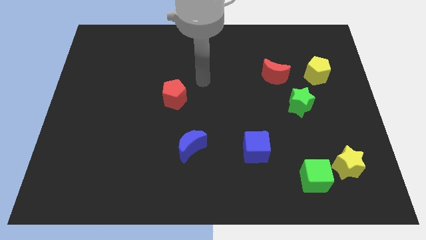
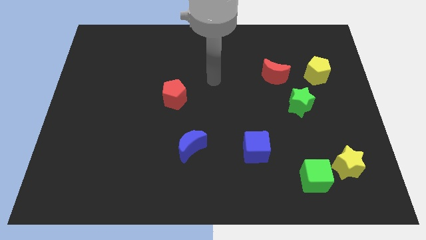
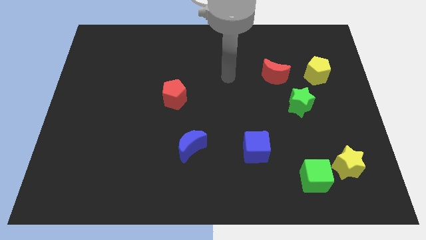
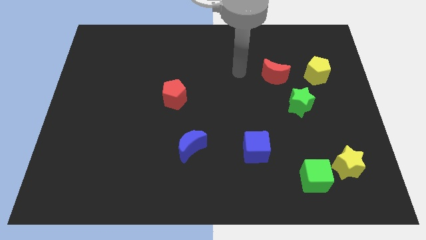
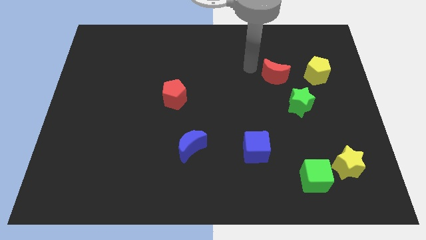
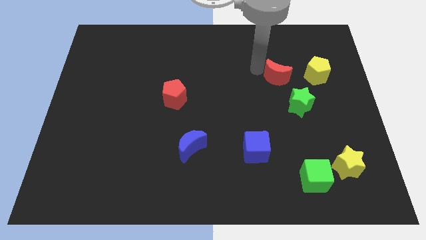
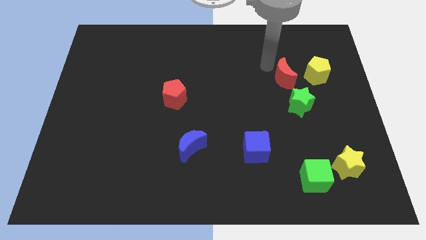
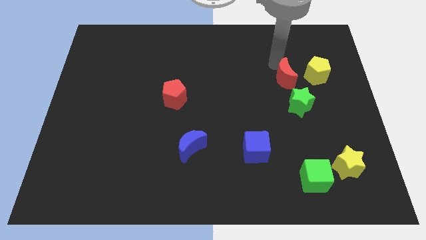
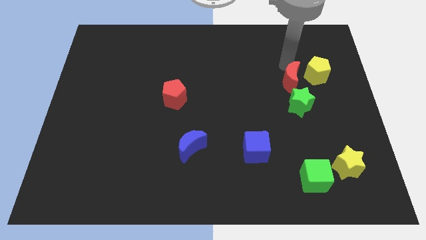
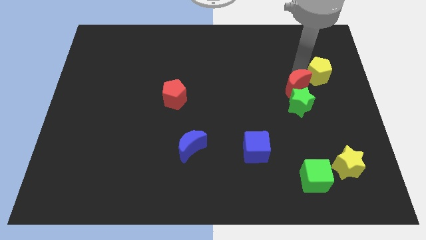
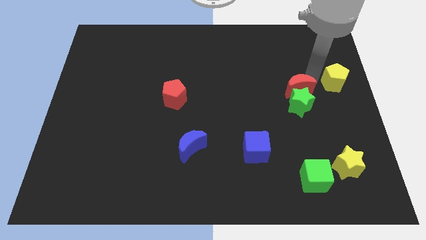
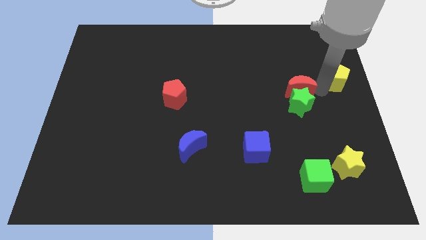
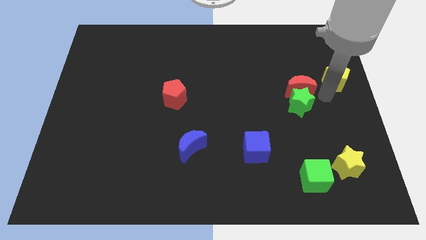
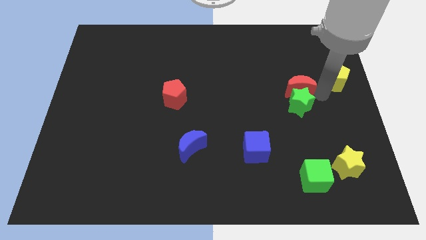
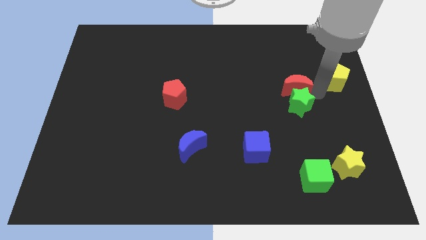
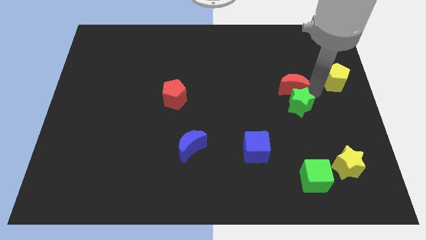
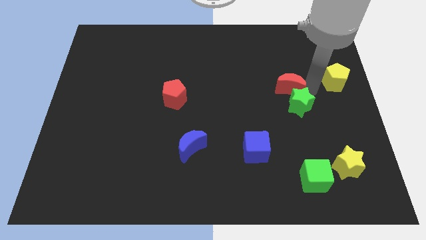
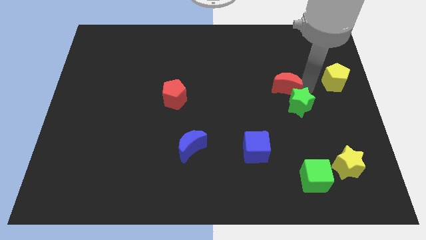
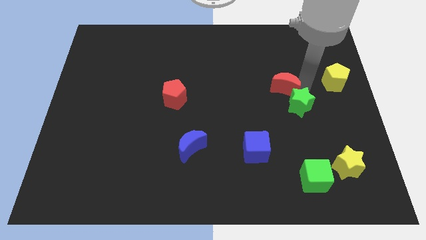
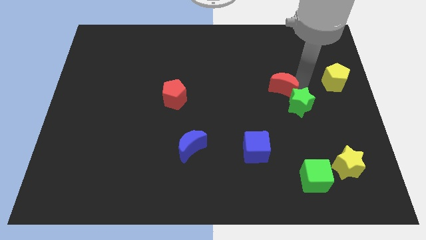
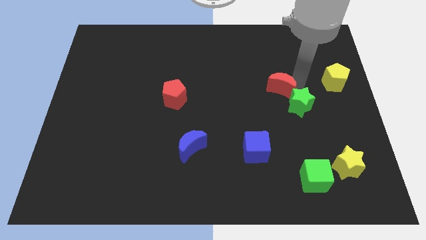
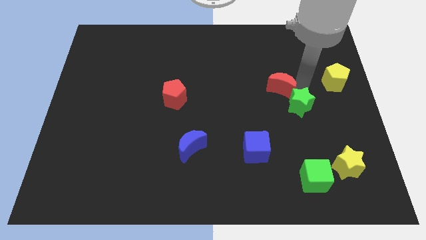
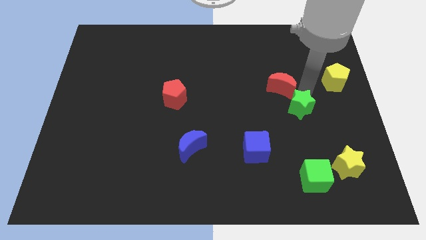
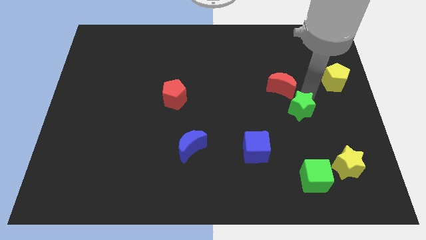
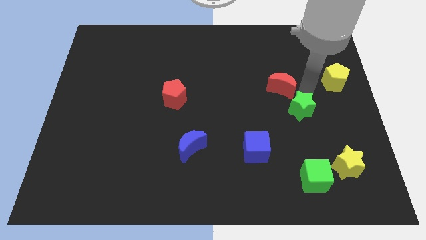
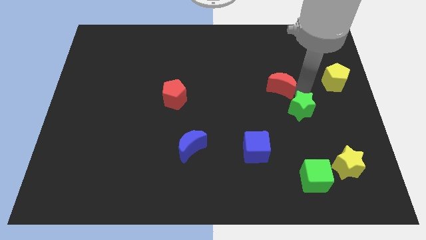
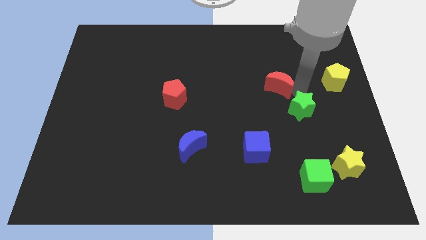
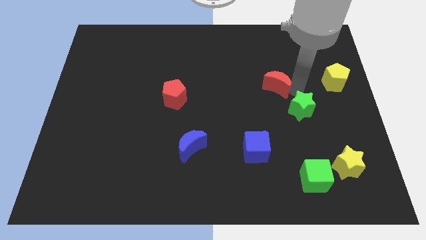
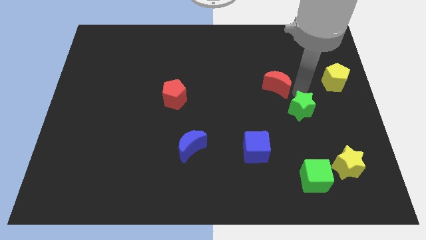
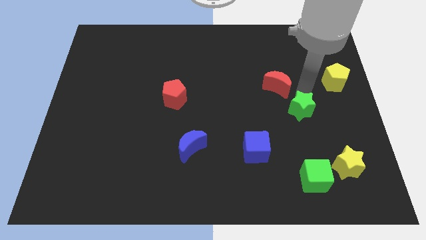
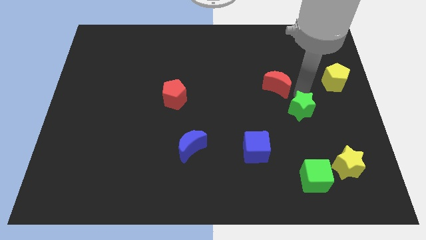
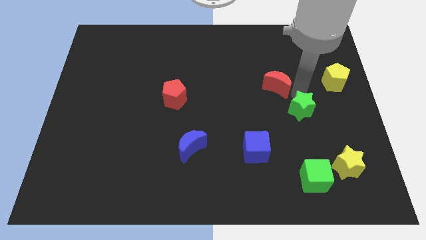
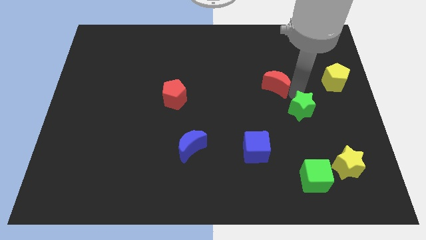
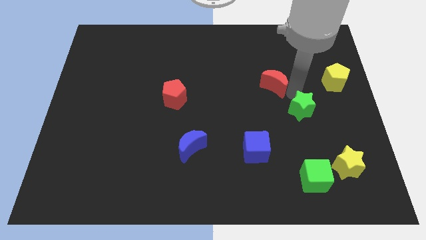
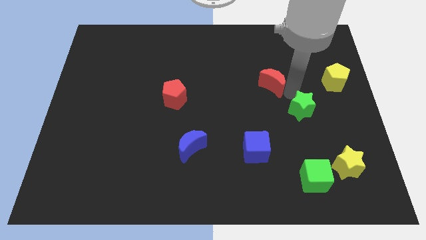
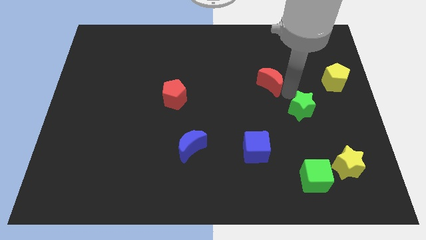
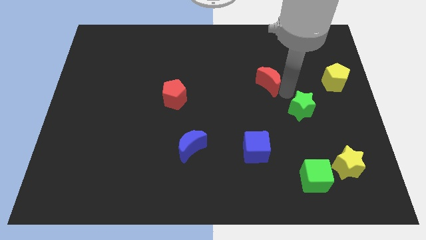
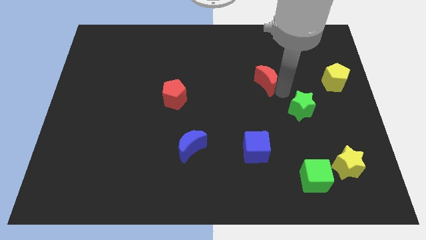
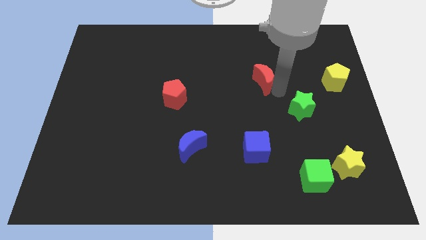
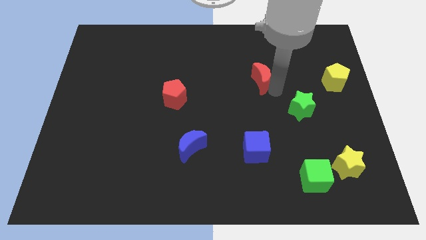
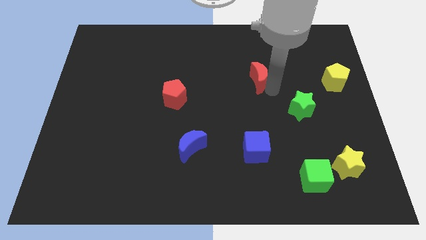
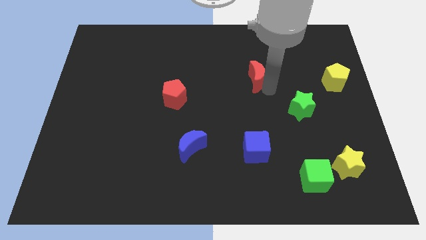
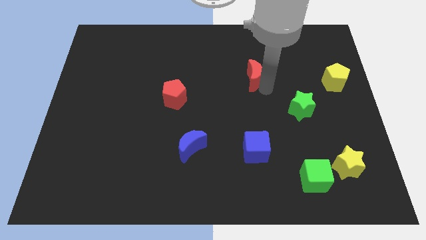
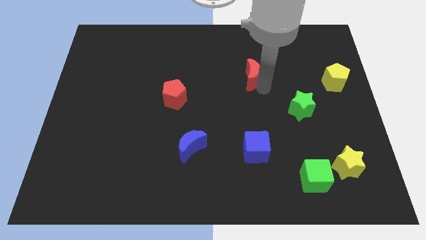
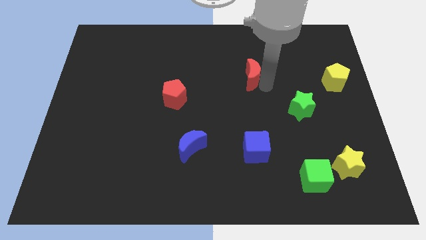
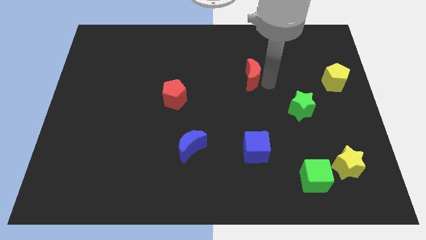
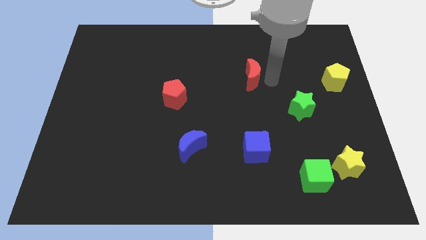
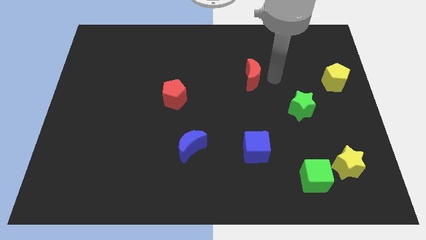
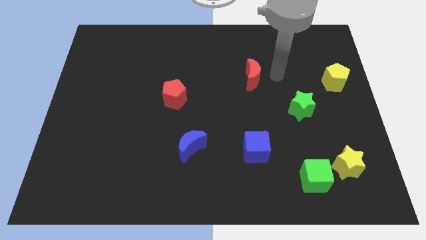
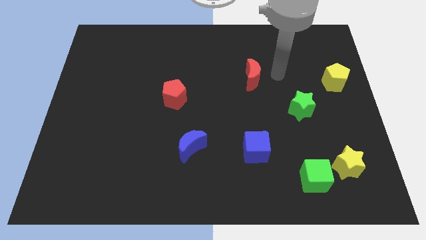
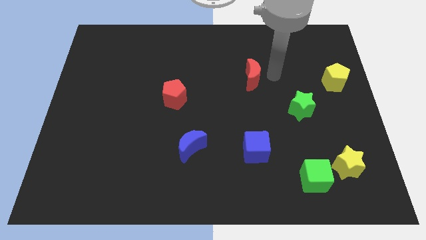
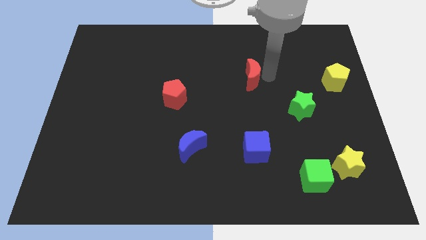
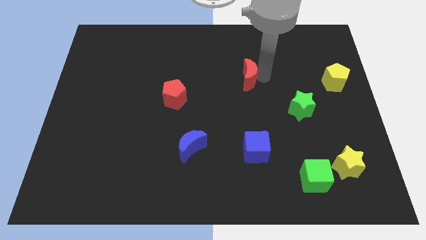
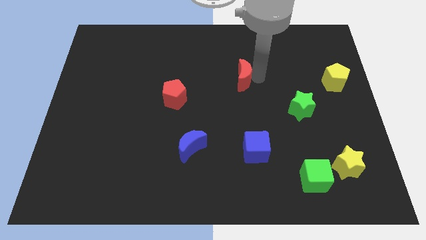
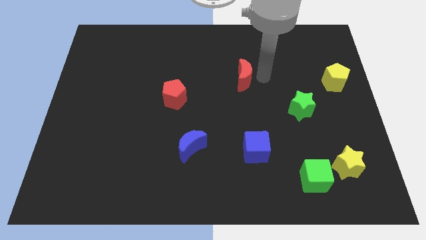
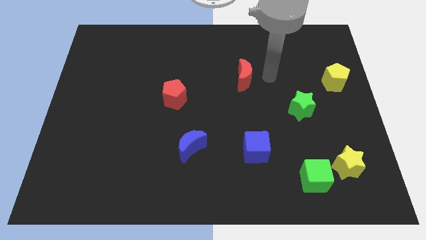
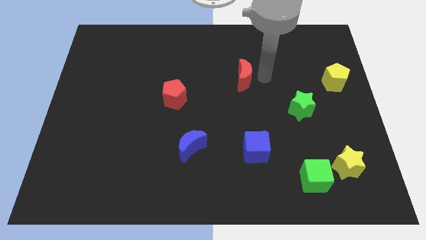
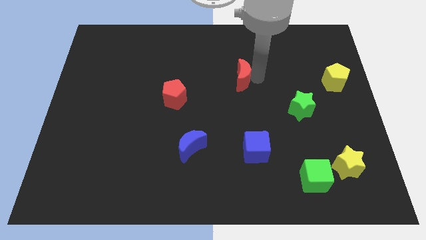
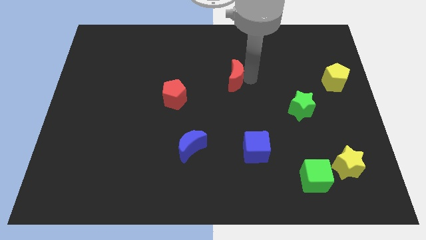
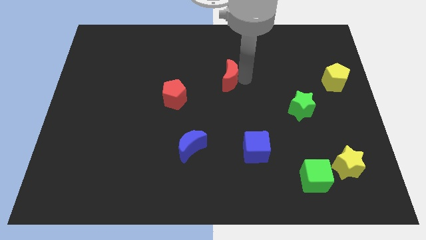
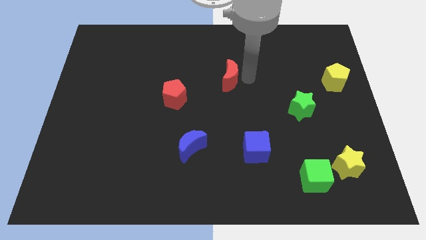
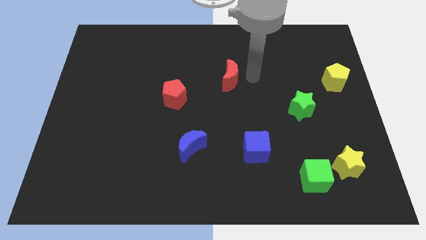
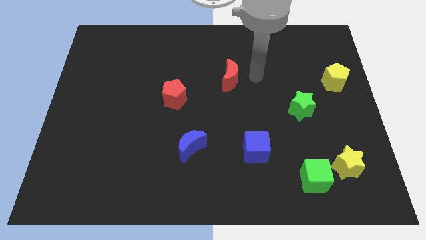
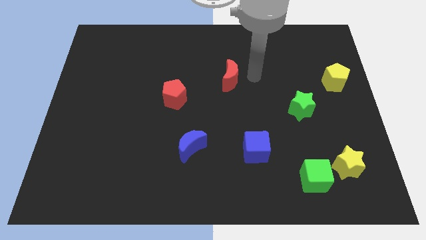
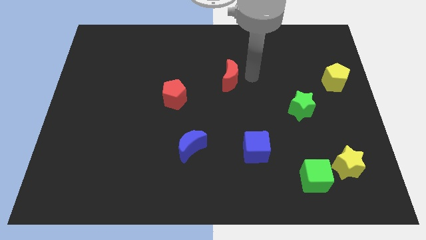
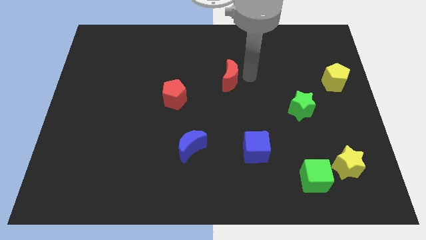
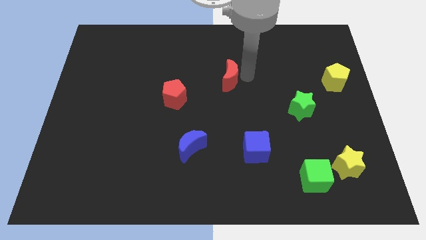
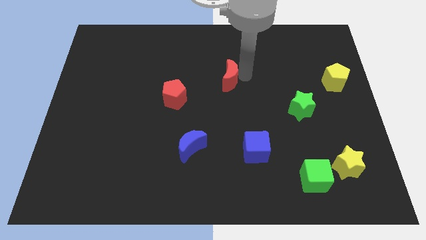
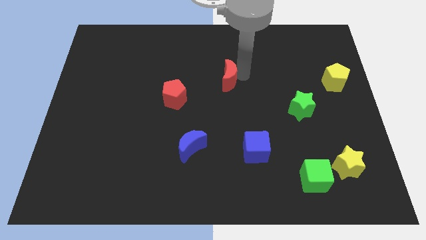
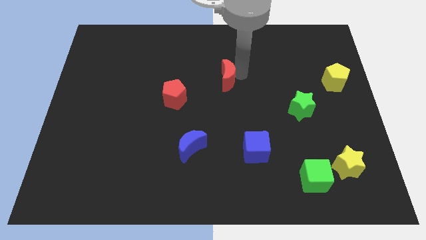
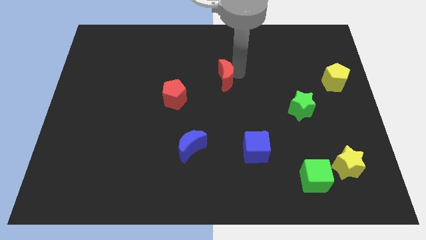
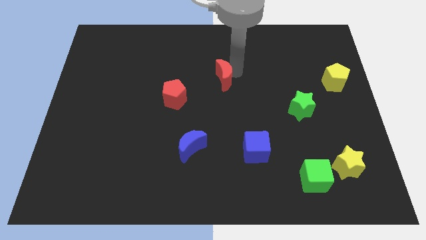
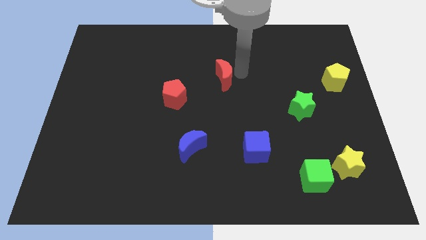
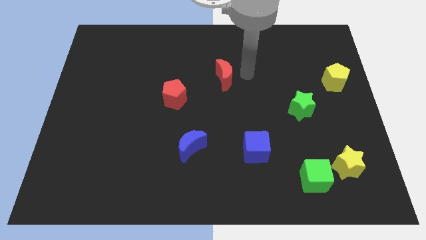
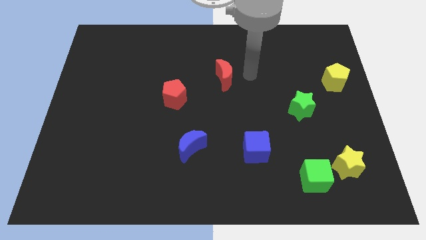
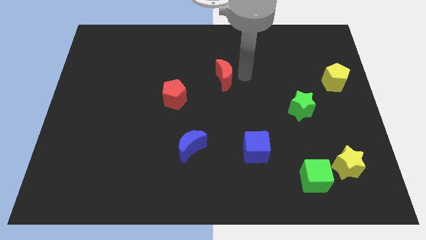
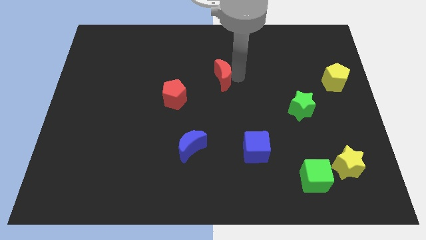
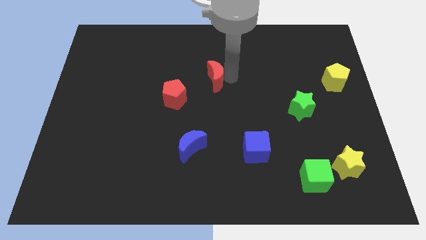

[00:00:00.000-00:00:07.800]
put the red moon diagonally up and to the right of the red pentagon
